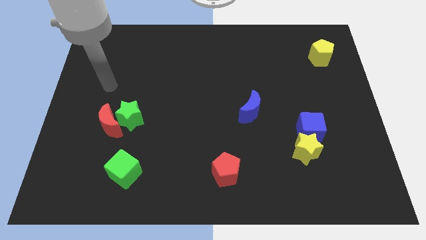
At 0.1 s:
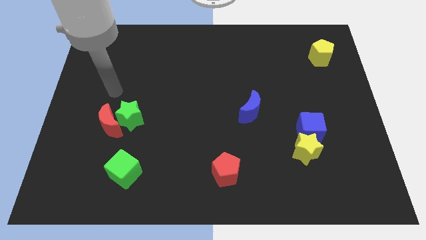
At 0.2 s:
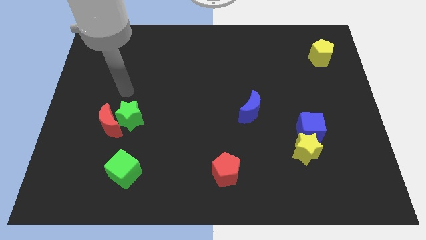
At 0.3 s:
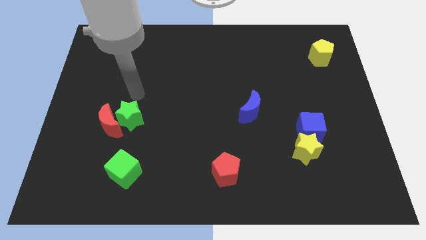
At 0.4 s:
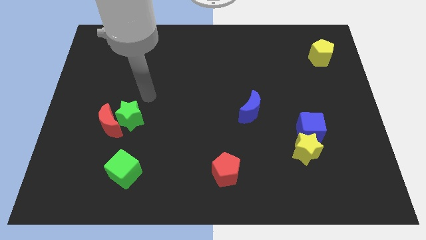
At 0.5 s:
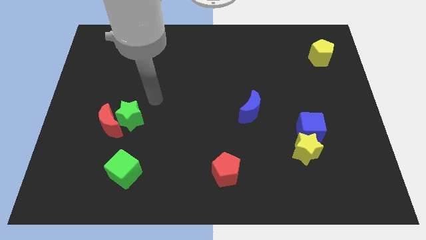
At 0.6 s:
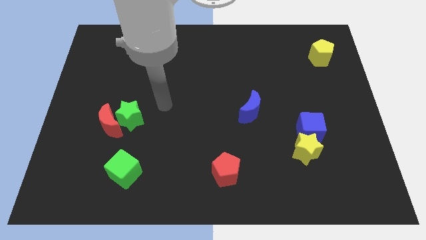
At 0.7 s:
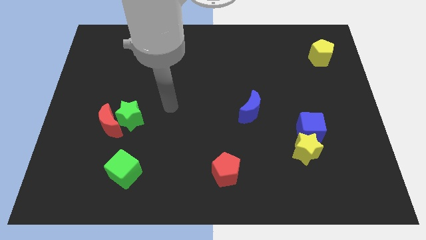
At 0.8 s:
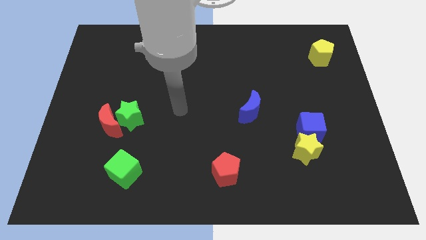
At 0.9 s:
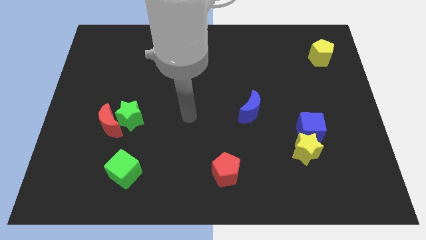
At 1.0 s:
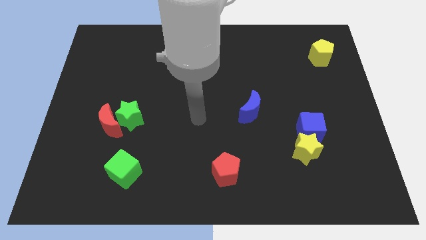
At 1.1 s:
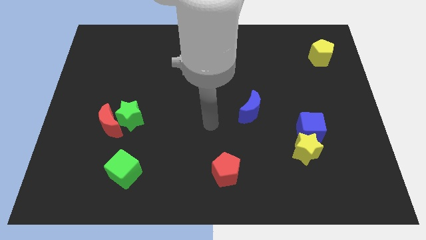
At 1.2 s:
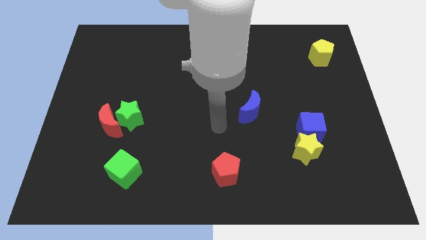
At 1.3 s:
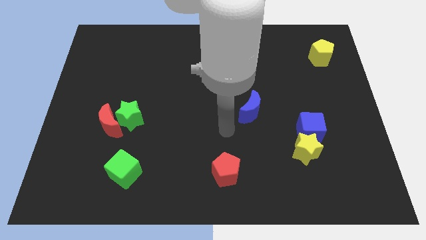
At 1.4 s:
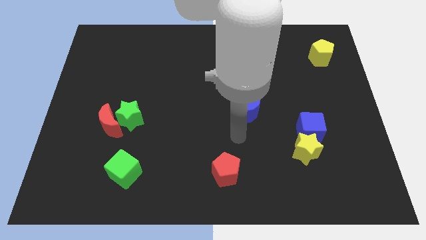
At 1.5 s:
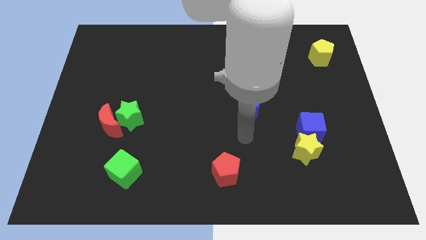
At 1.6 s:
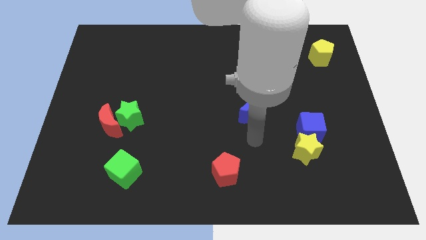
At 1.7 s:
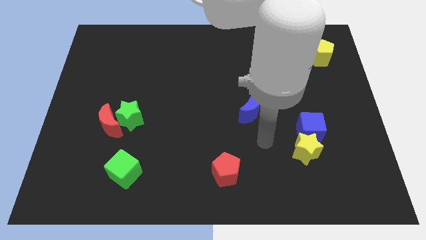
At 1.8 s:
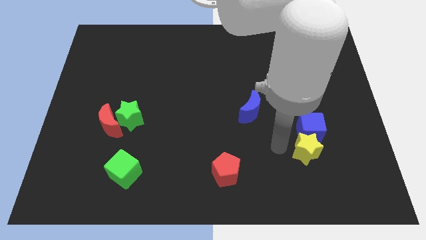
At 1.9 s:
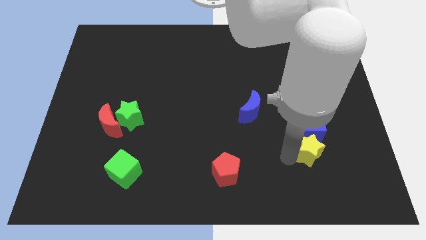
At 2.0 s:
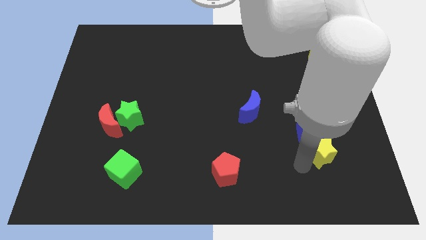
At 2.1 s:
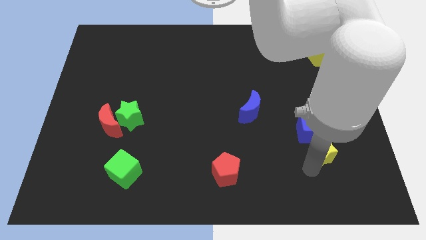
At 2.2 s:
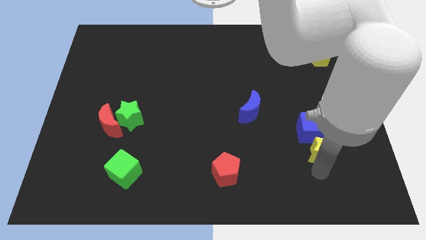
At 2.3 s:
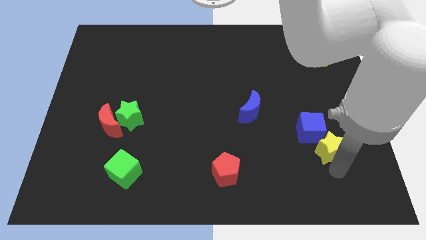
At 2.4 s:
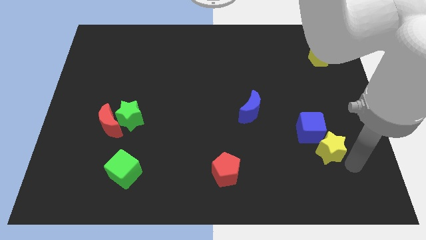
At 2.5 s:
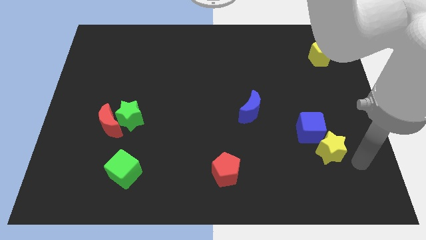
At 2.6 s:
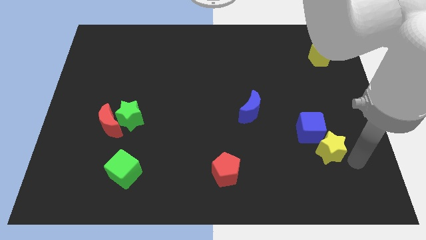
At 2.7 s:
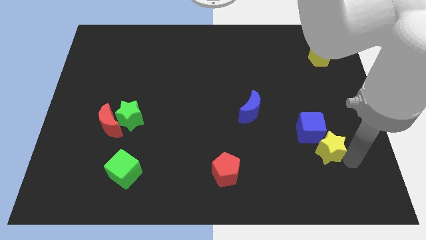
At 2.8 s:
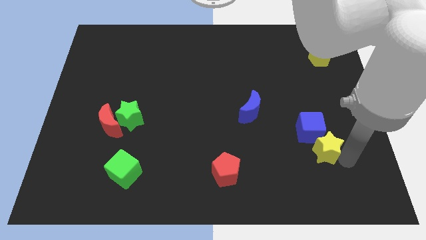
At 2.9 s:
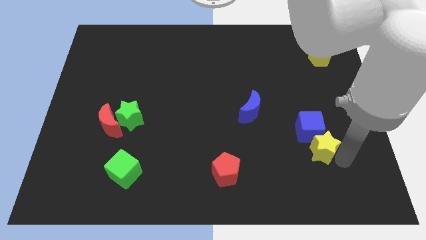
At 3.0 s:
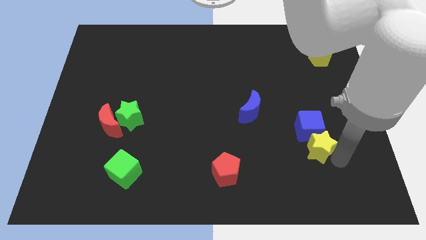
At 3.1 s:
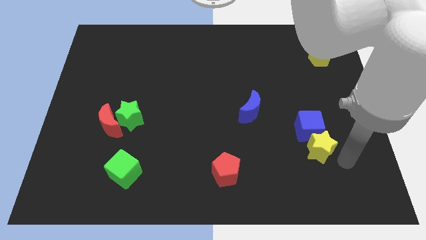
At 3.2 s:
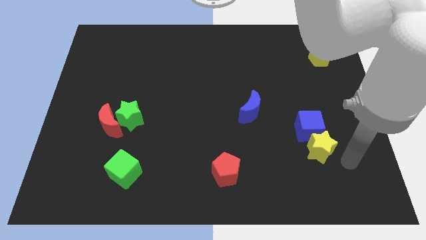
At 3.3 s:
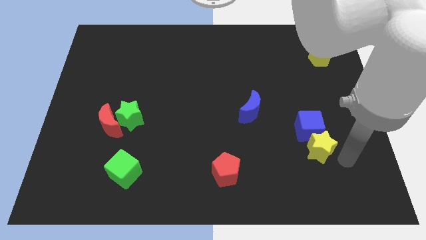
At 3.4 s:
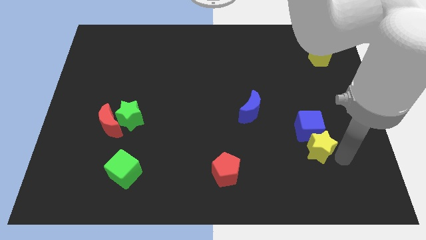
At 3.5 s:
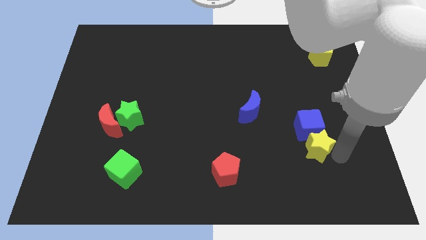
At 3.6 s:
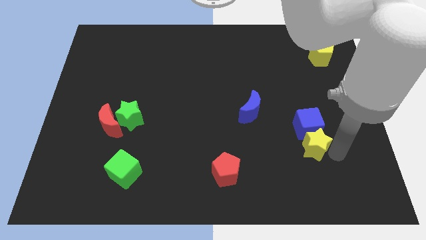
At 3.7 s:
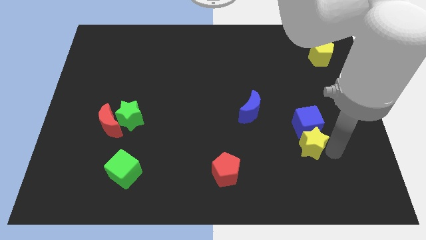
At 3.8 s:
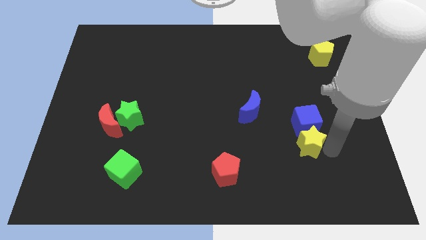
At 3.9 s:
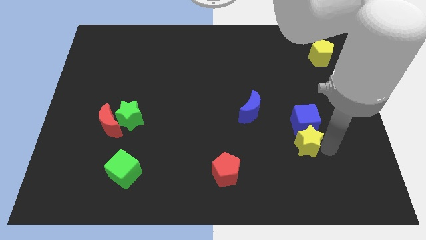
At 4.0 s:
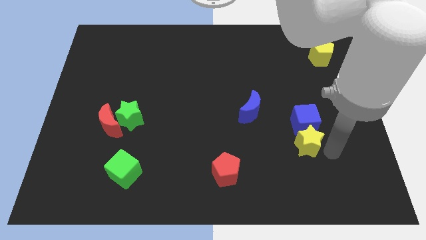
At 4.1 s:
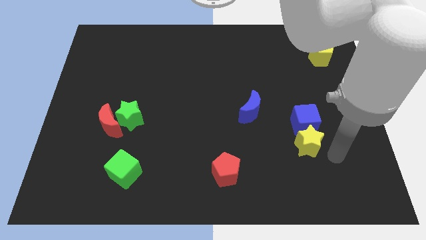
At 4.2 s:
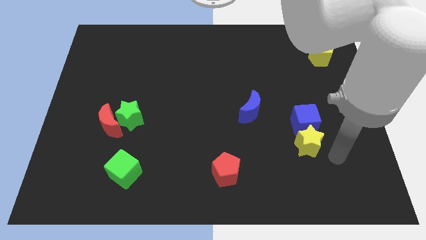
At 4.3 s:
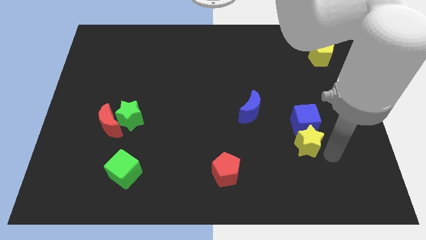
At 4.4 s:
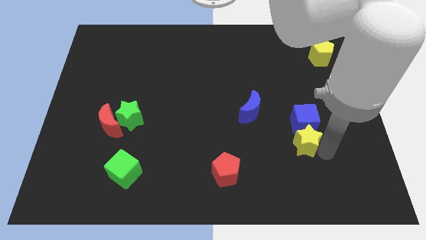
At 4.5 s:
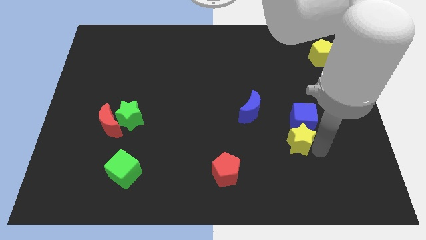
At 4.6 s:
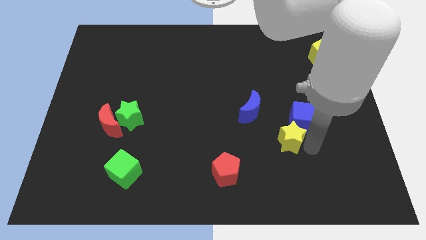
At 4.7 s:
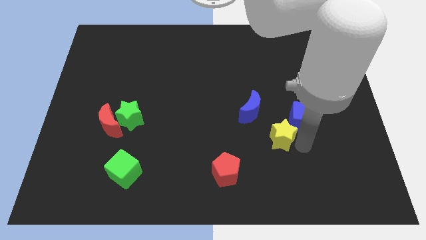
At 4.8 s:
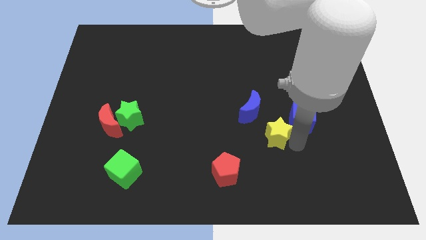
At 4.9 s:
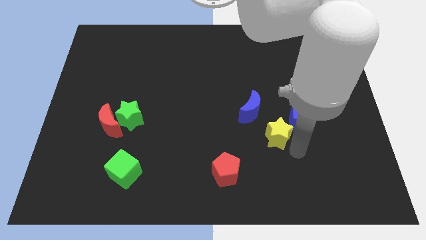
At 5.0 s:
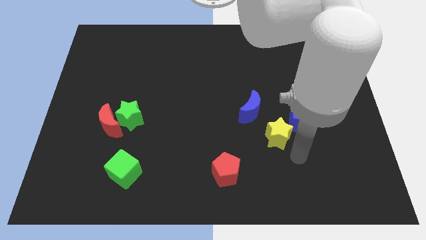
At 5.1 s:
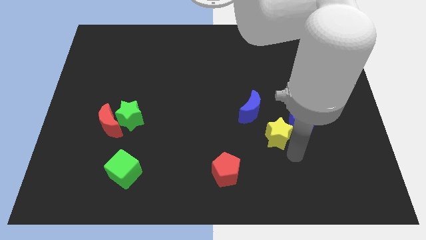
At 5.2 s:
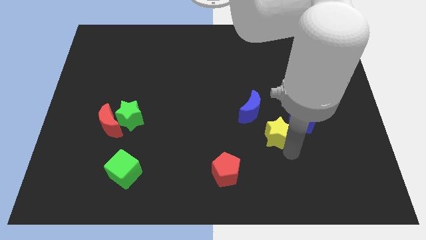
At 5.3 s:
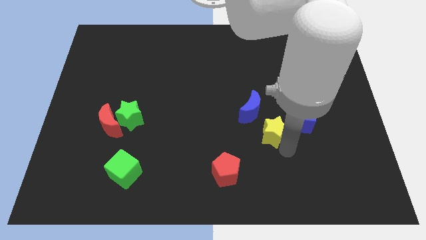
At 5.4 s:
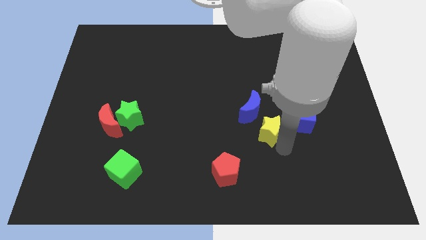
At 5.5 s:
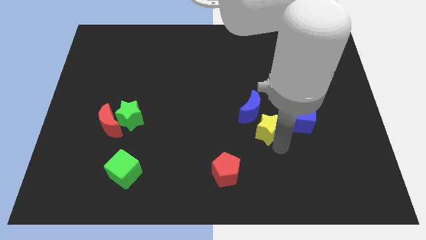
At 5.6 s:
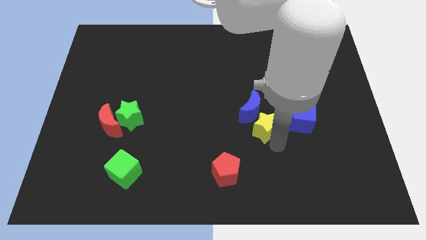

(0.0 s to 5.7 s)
slide the yellow star towards the blue moon

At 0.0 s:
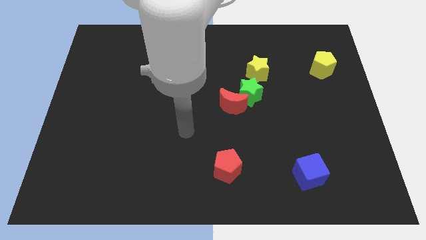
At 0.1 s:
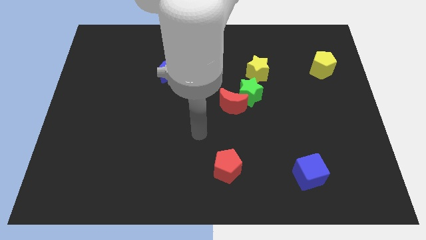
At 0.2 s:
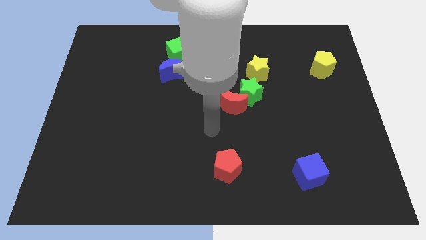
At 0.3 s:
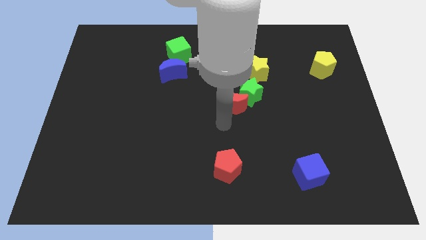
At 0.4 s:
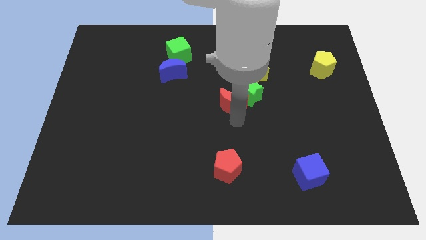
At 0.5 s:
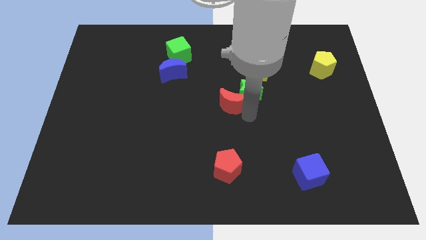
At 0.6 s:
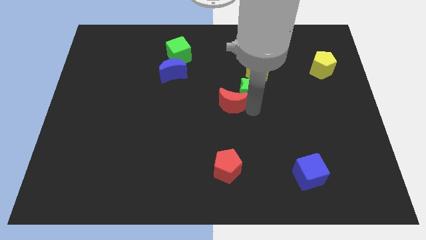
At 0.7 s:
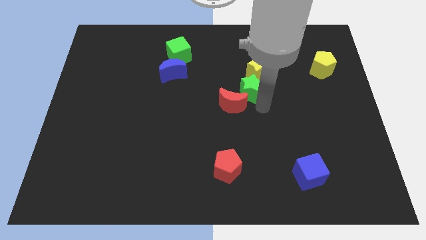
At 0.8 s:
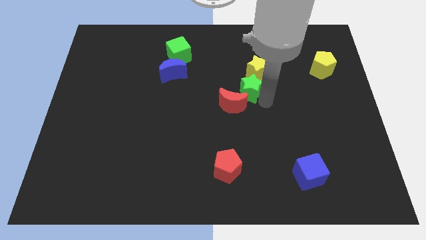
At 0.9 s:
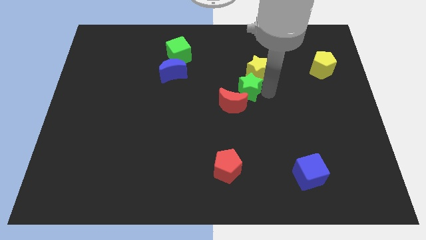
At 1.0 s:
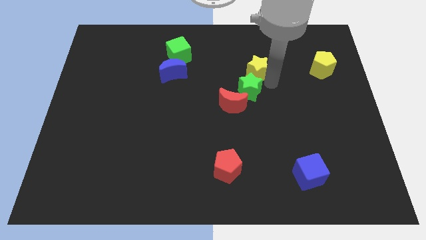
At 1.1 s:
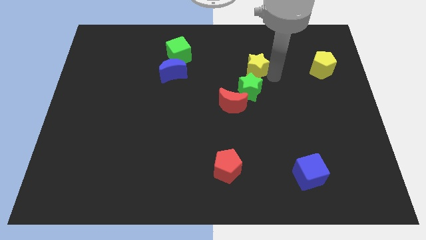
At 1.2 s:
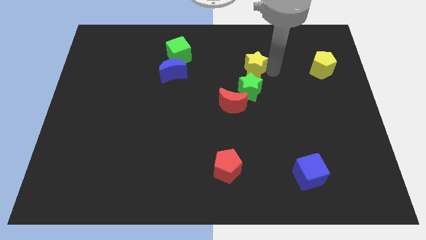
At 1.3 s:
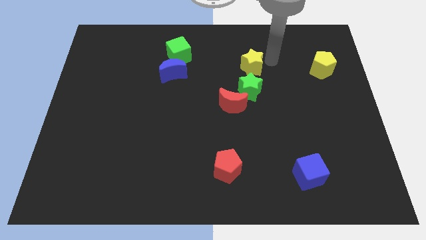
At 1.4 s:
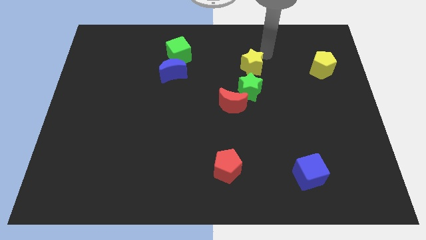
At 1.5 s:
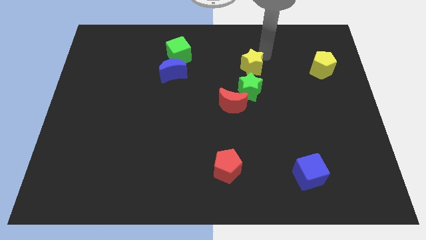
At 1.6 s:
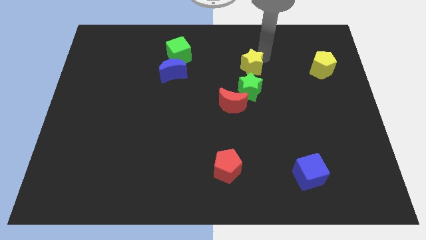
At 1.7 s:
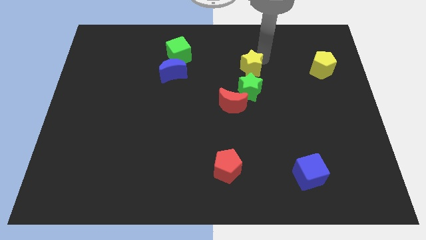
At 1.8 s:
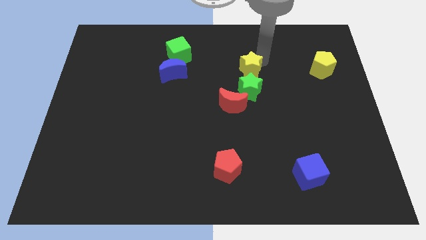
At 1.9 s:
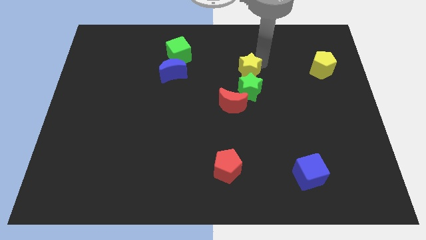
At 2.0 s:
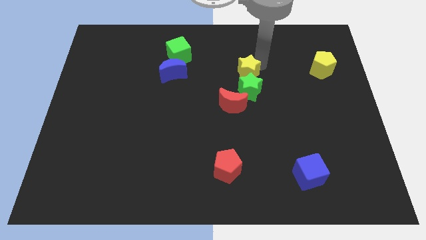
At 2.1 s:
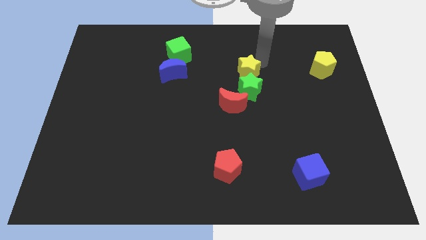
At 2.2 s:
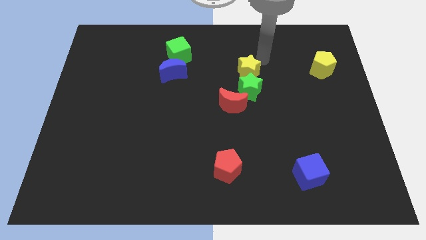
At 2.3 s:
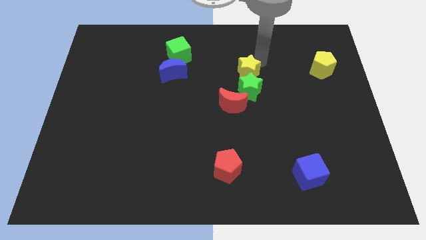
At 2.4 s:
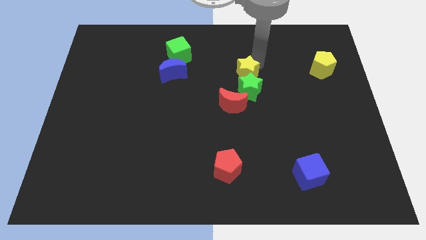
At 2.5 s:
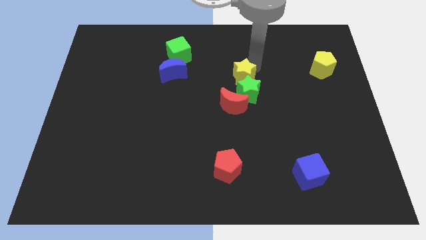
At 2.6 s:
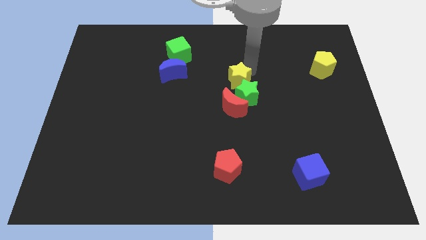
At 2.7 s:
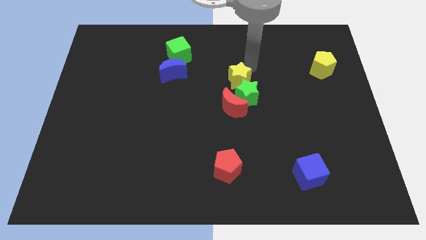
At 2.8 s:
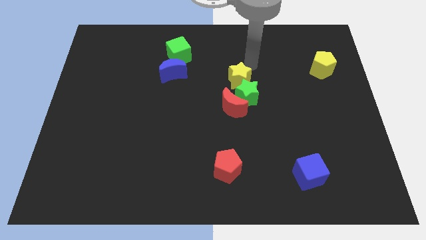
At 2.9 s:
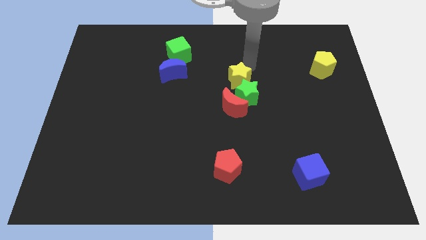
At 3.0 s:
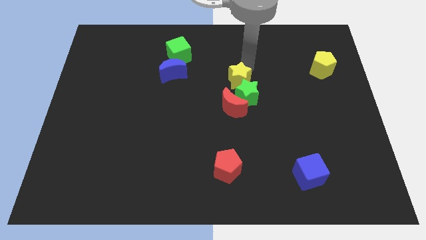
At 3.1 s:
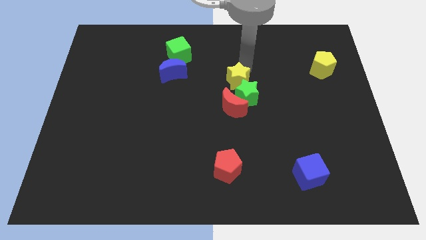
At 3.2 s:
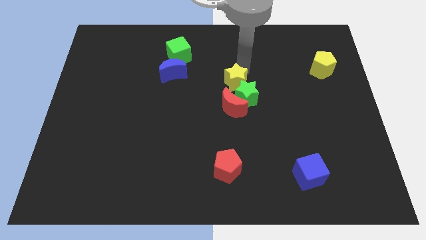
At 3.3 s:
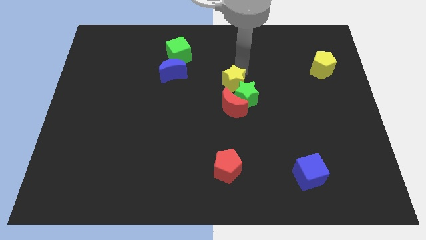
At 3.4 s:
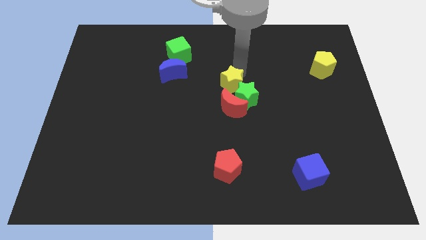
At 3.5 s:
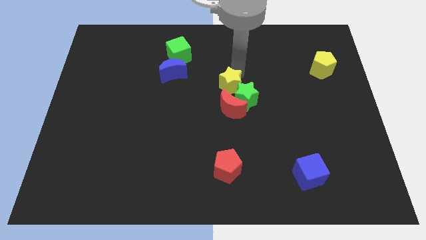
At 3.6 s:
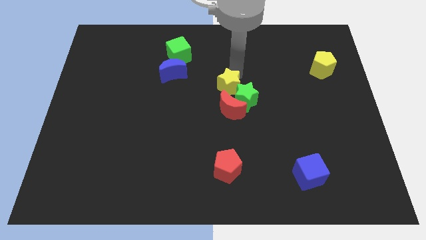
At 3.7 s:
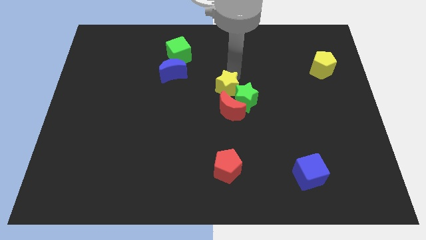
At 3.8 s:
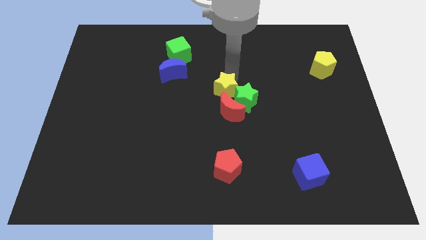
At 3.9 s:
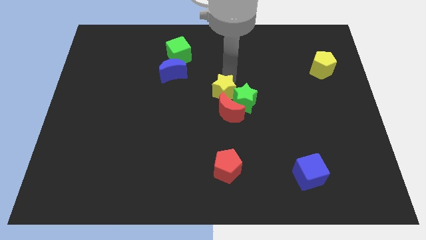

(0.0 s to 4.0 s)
push the yellow star close to the red moon
